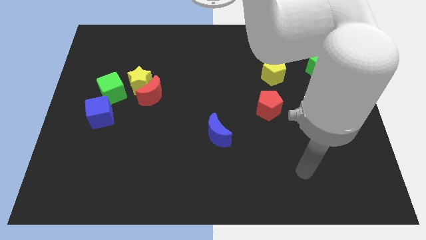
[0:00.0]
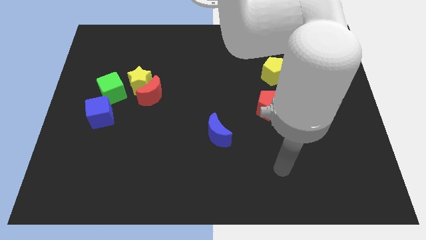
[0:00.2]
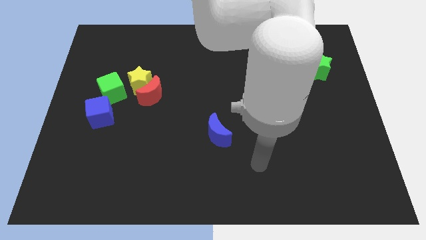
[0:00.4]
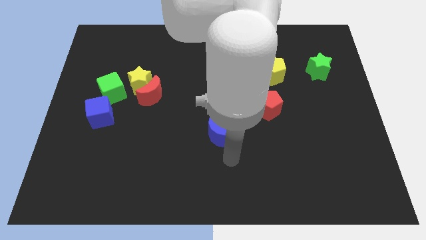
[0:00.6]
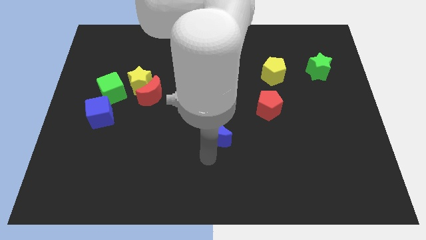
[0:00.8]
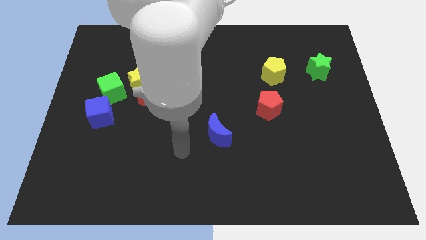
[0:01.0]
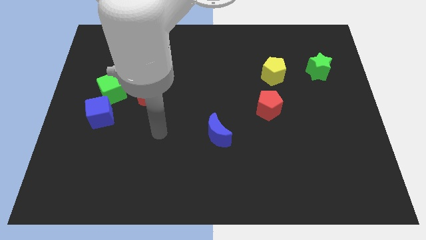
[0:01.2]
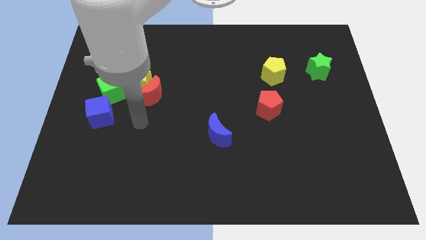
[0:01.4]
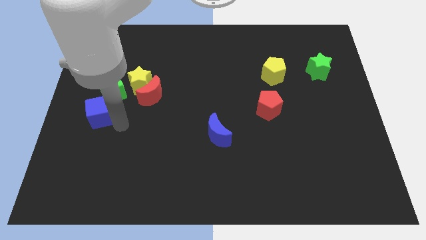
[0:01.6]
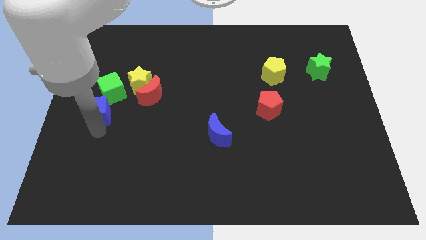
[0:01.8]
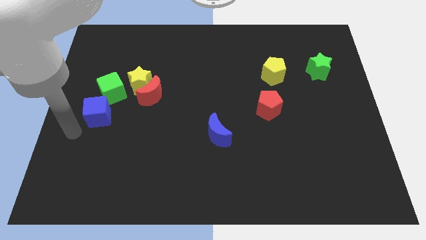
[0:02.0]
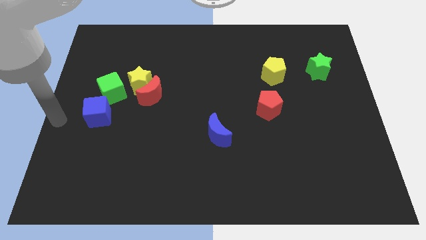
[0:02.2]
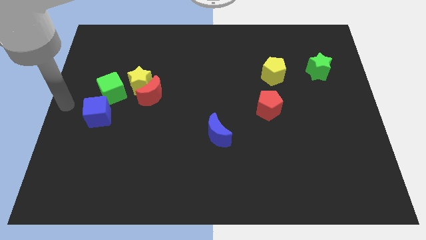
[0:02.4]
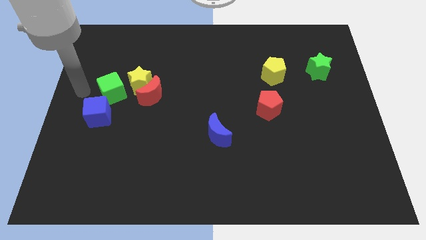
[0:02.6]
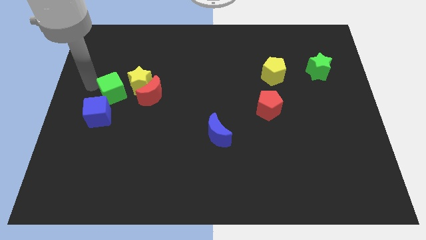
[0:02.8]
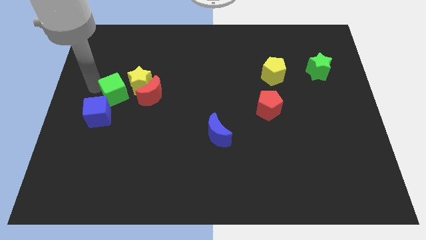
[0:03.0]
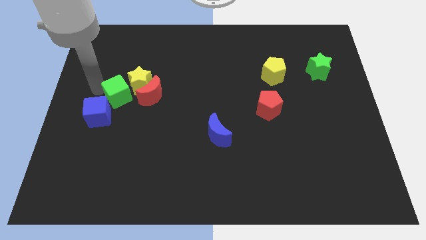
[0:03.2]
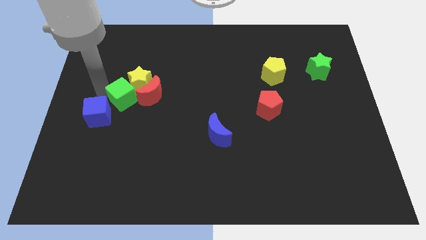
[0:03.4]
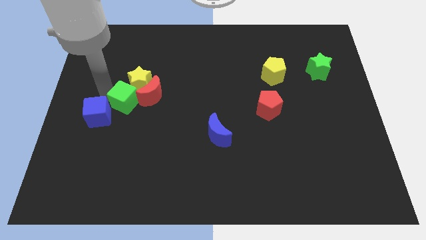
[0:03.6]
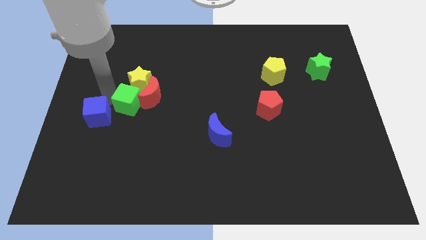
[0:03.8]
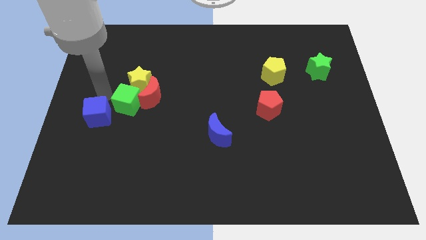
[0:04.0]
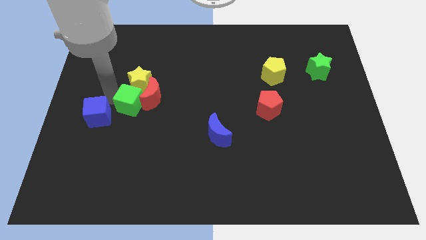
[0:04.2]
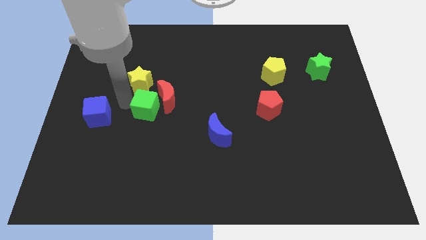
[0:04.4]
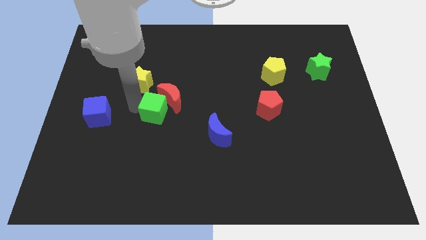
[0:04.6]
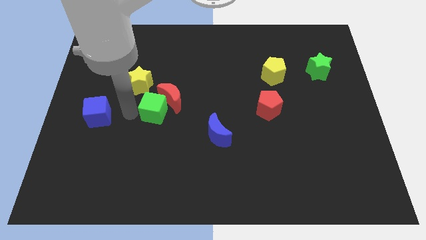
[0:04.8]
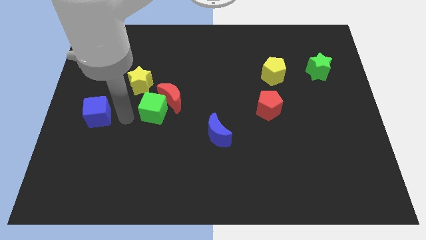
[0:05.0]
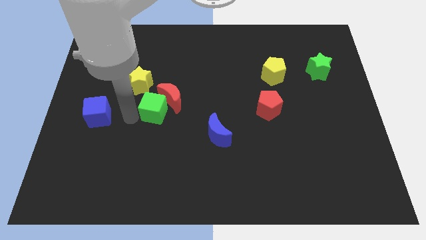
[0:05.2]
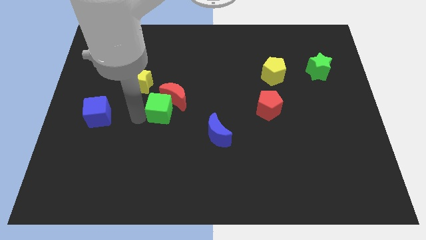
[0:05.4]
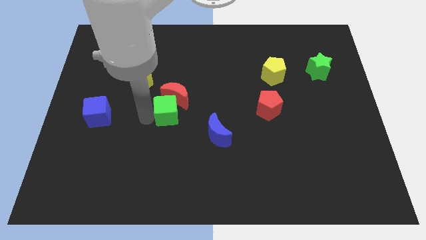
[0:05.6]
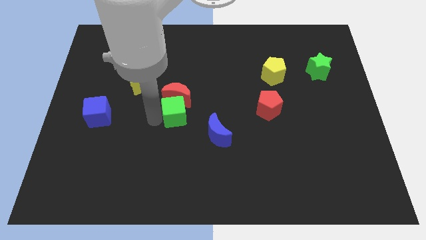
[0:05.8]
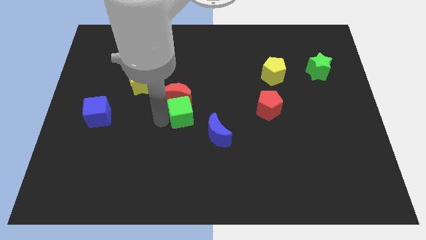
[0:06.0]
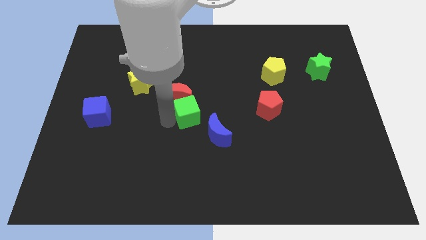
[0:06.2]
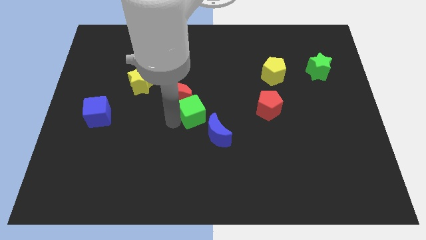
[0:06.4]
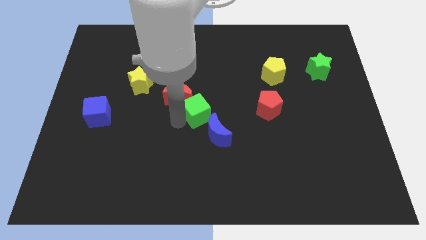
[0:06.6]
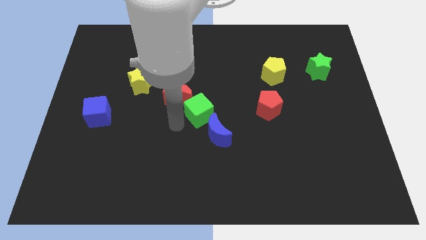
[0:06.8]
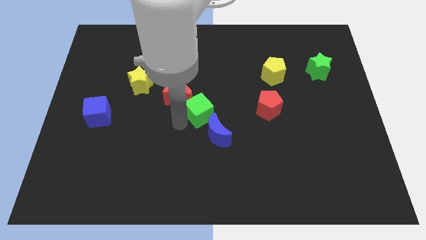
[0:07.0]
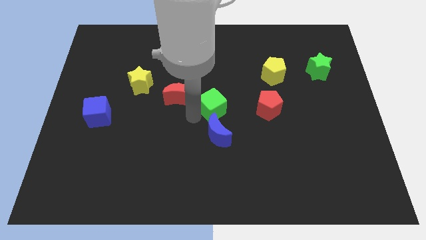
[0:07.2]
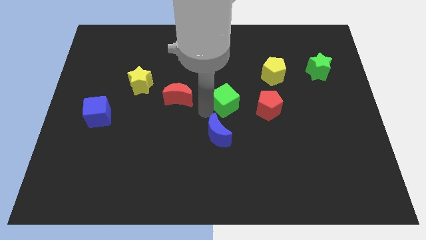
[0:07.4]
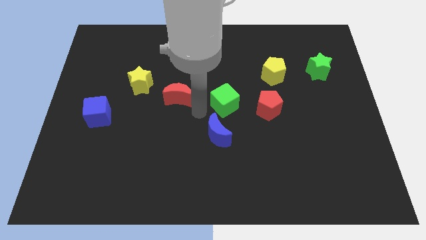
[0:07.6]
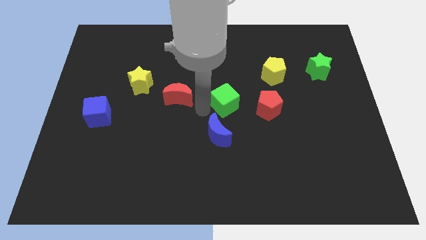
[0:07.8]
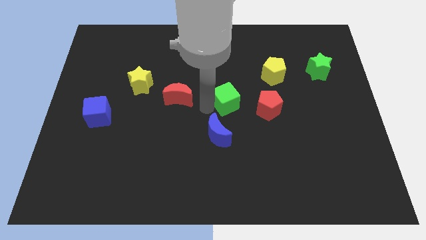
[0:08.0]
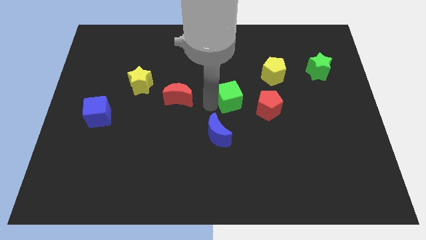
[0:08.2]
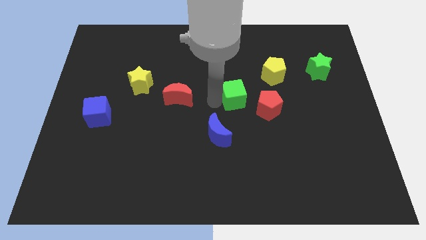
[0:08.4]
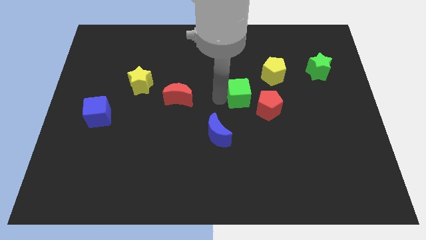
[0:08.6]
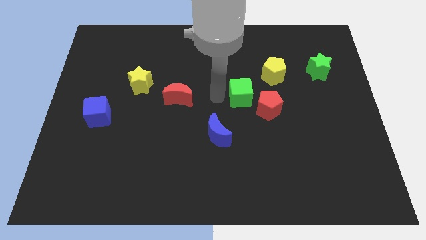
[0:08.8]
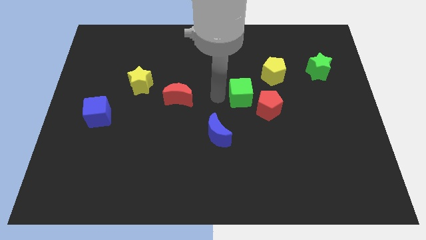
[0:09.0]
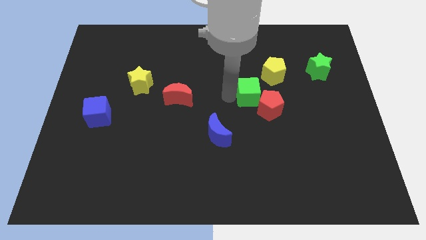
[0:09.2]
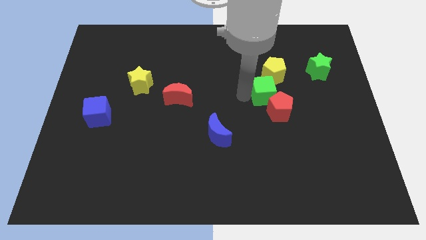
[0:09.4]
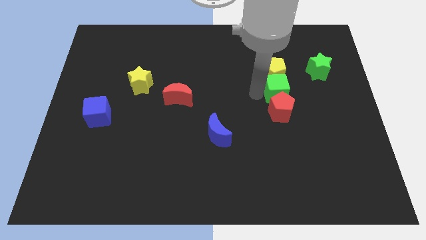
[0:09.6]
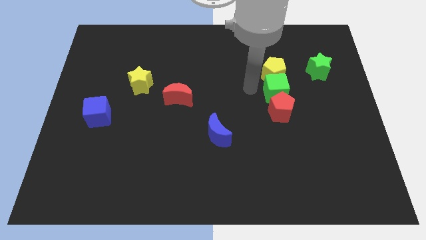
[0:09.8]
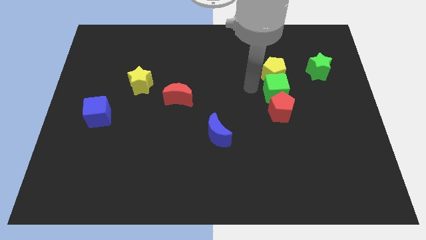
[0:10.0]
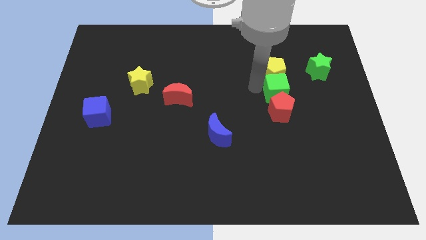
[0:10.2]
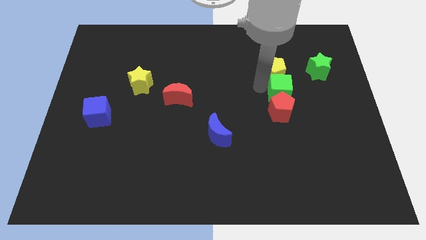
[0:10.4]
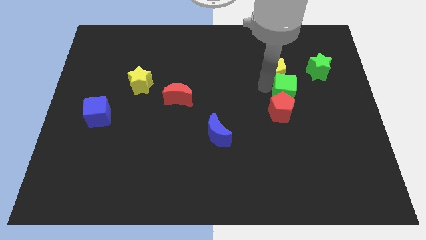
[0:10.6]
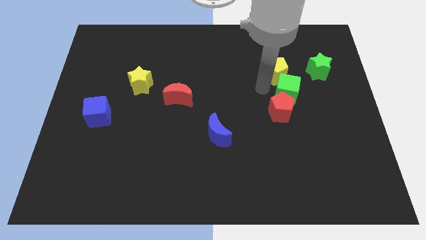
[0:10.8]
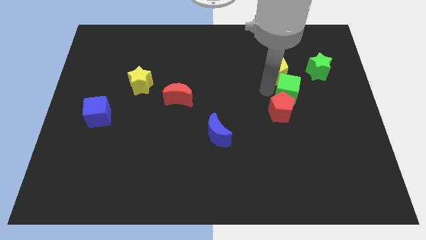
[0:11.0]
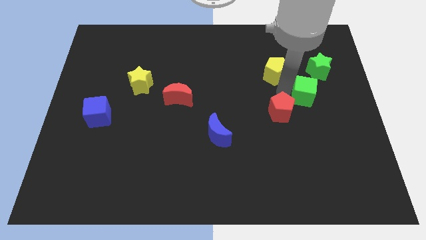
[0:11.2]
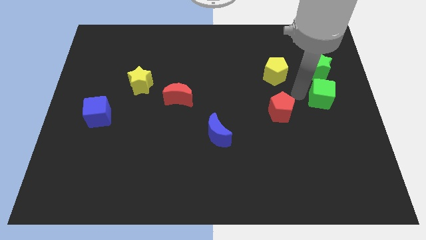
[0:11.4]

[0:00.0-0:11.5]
slide the green cube to the center right
